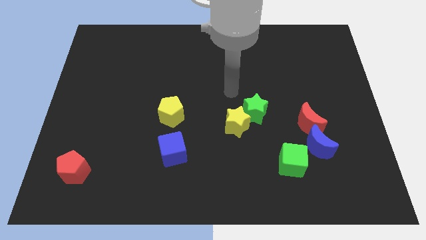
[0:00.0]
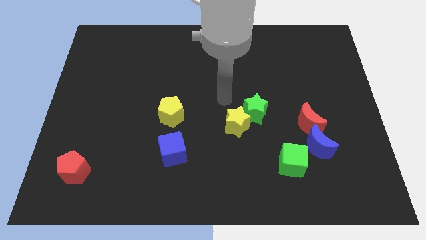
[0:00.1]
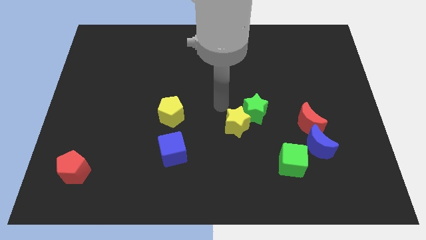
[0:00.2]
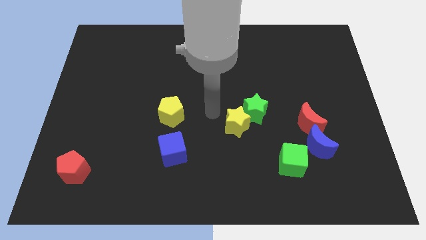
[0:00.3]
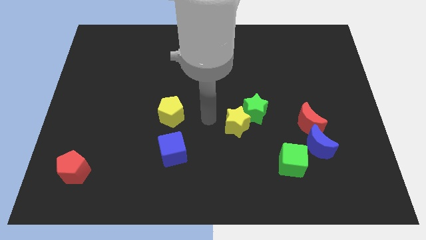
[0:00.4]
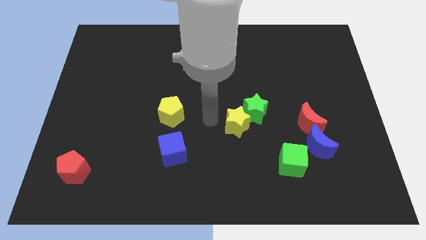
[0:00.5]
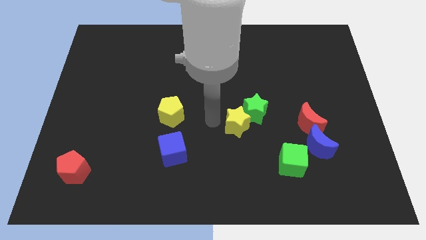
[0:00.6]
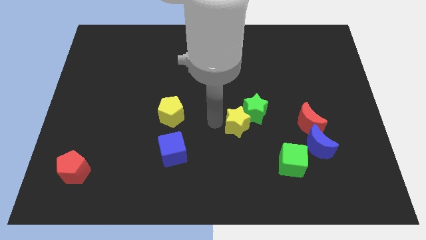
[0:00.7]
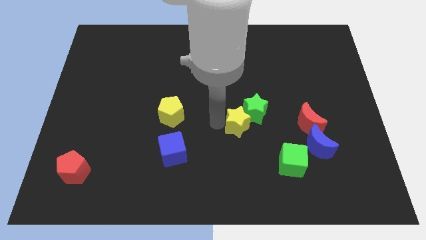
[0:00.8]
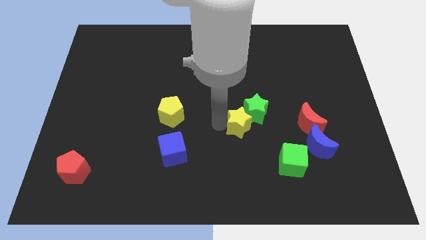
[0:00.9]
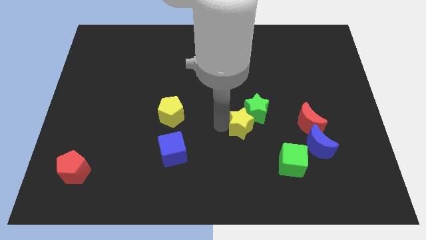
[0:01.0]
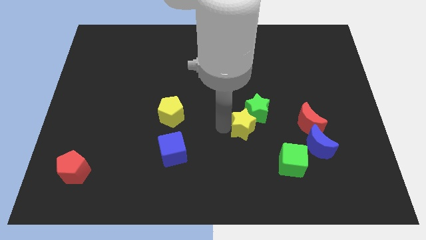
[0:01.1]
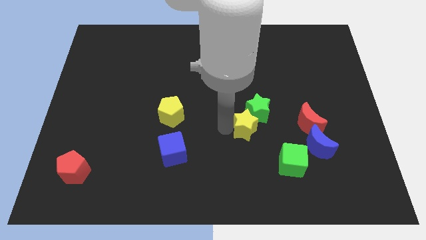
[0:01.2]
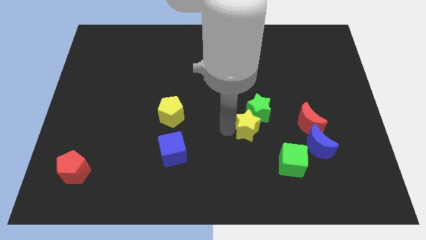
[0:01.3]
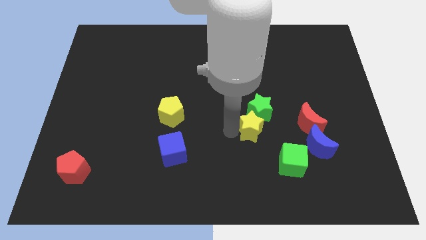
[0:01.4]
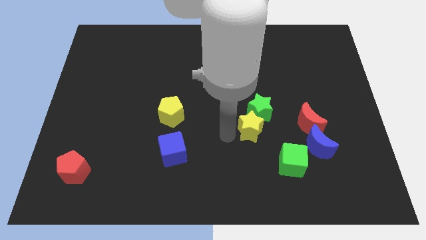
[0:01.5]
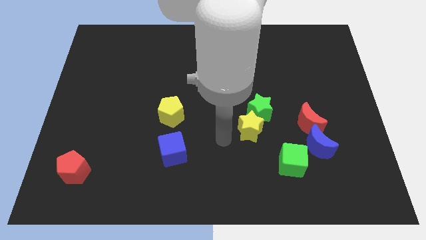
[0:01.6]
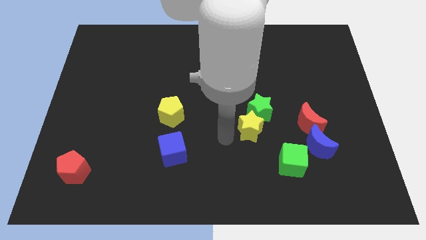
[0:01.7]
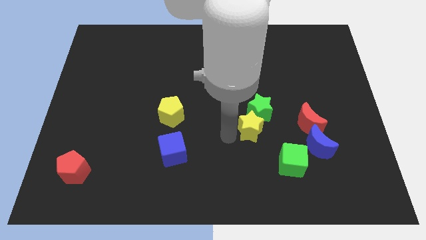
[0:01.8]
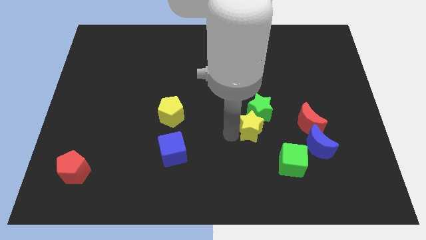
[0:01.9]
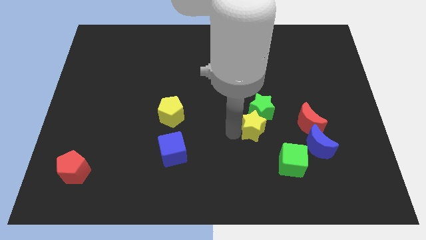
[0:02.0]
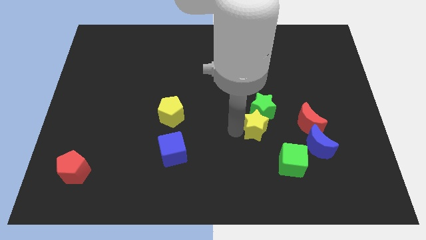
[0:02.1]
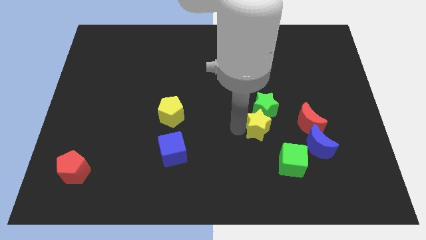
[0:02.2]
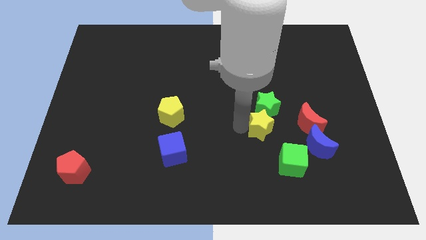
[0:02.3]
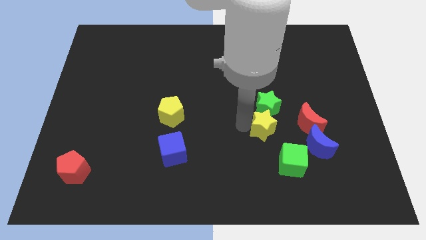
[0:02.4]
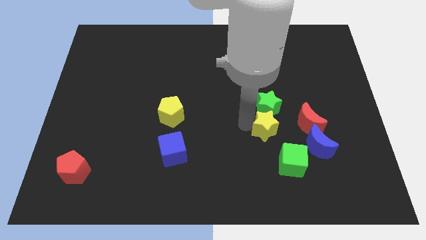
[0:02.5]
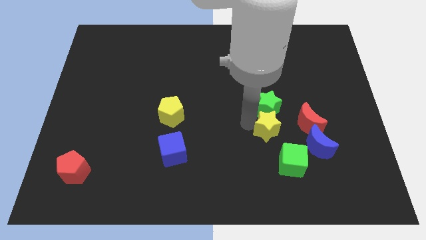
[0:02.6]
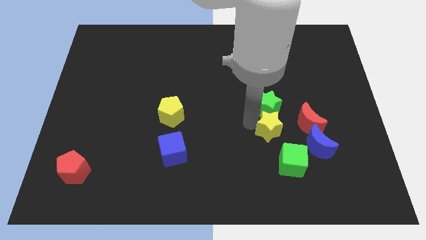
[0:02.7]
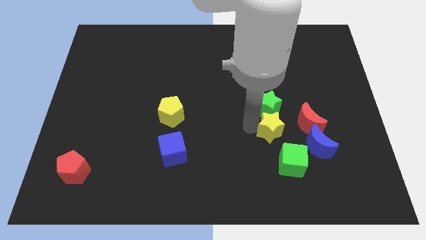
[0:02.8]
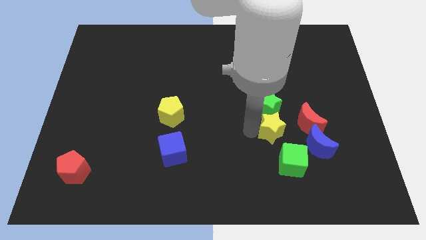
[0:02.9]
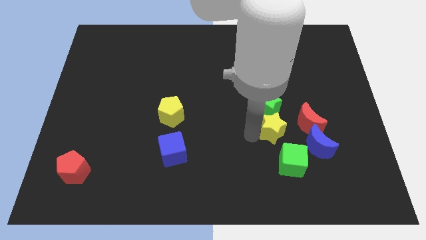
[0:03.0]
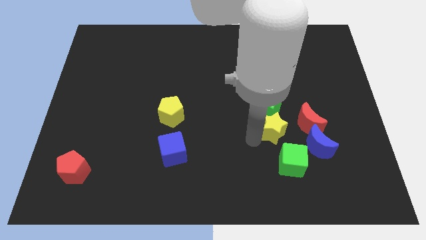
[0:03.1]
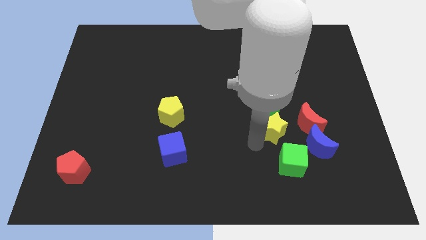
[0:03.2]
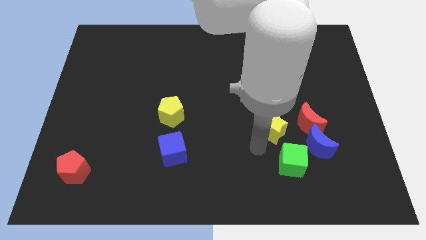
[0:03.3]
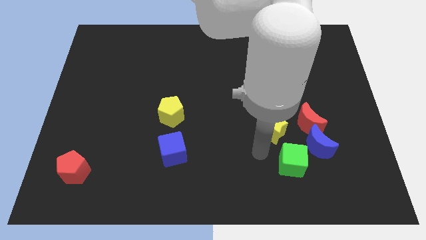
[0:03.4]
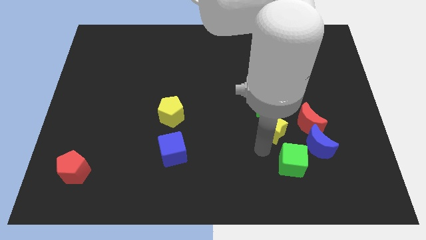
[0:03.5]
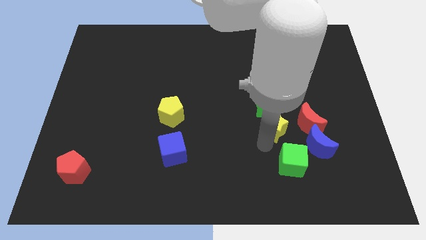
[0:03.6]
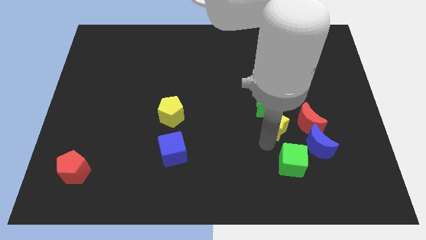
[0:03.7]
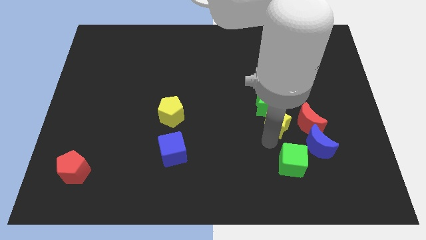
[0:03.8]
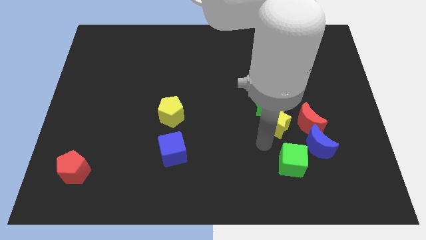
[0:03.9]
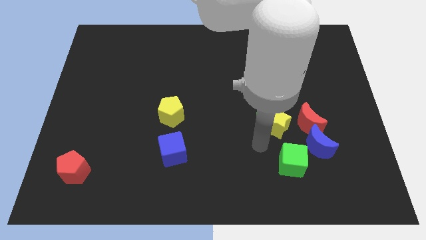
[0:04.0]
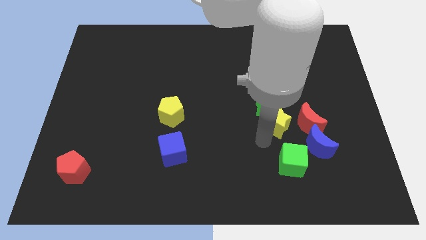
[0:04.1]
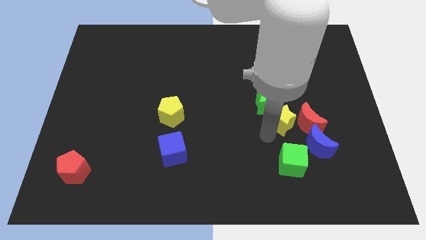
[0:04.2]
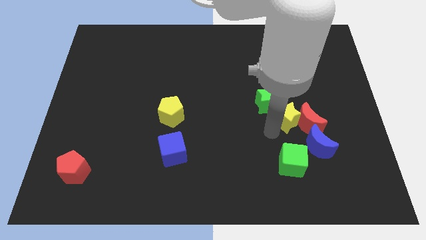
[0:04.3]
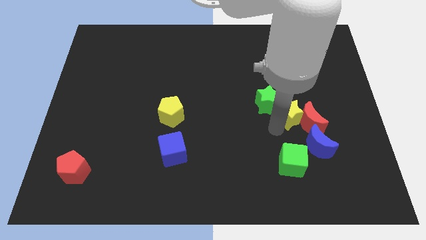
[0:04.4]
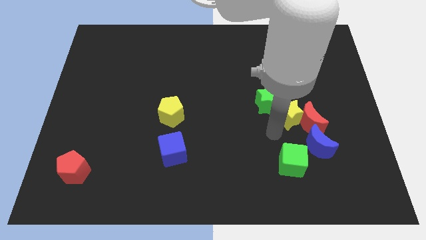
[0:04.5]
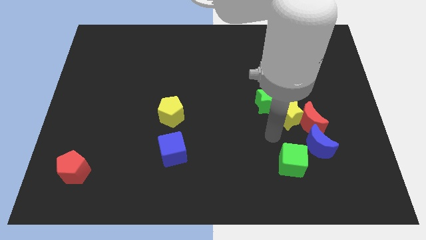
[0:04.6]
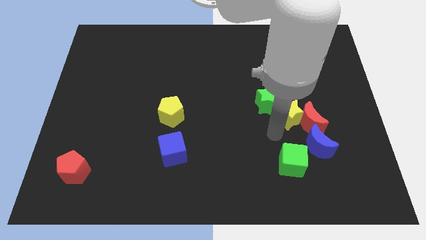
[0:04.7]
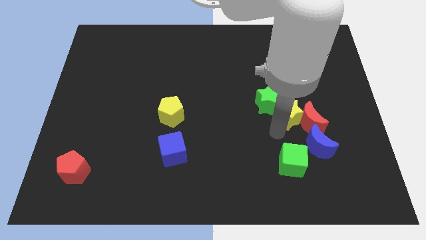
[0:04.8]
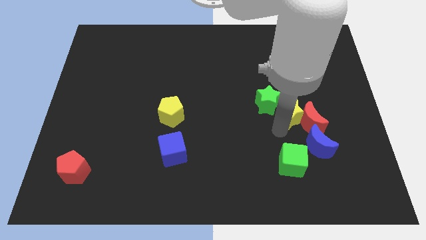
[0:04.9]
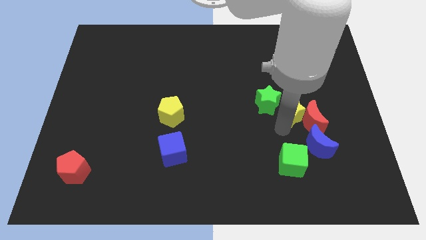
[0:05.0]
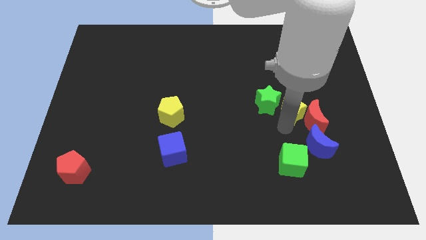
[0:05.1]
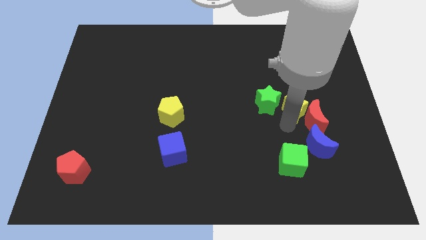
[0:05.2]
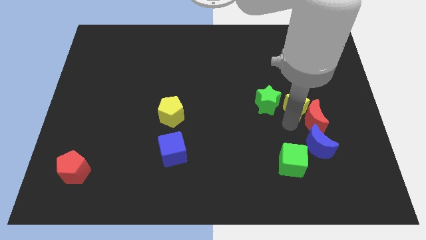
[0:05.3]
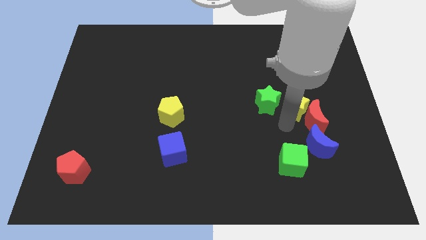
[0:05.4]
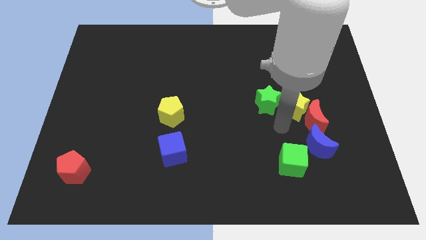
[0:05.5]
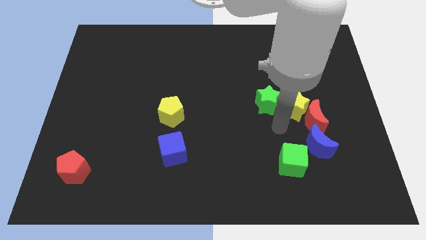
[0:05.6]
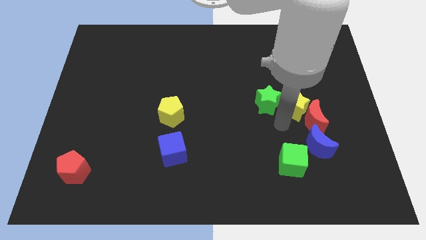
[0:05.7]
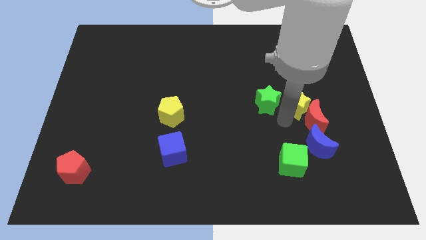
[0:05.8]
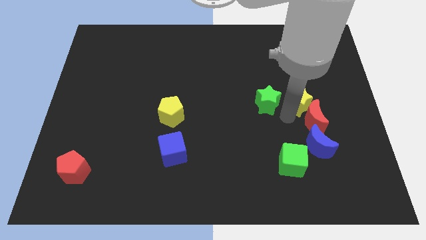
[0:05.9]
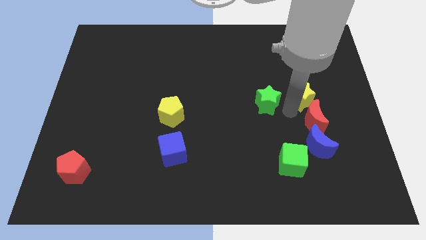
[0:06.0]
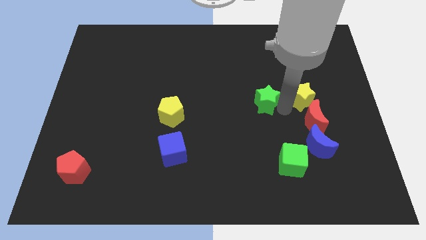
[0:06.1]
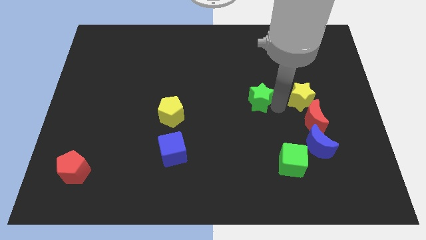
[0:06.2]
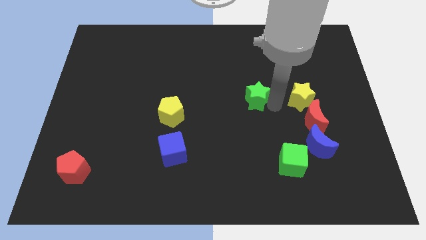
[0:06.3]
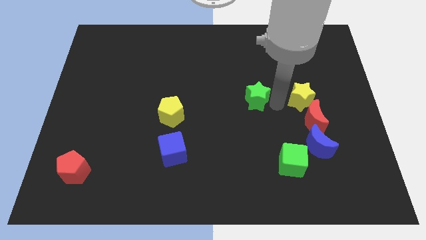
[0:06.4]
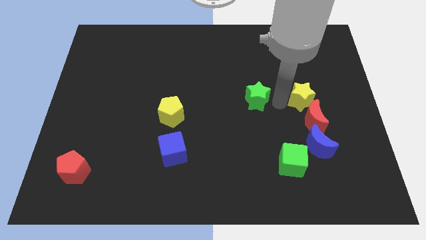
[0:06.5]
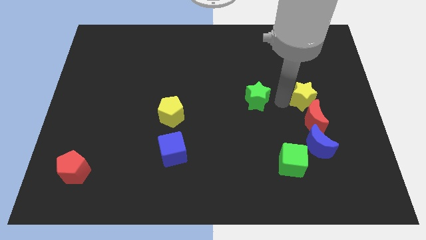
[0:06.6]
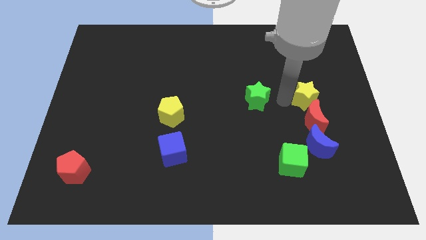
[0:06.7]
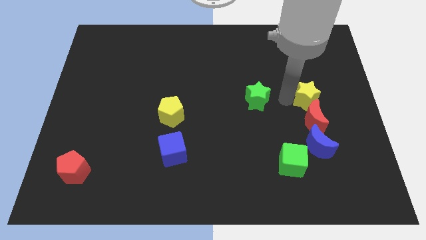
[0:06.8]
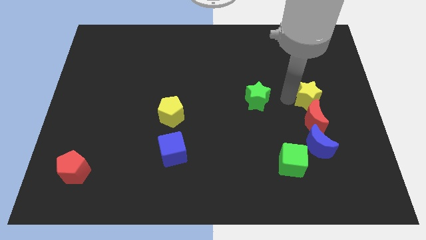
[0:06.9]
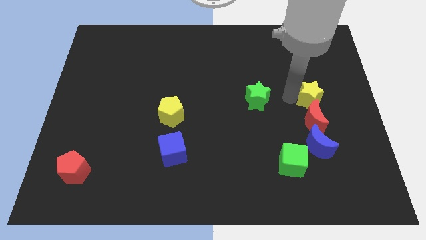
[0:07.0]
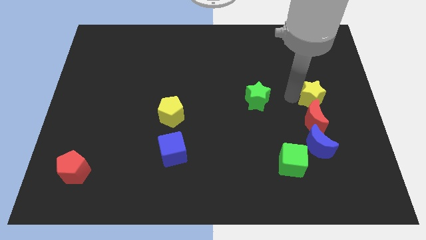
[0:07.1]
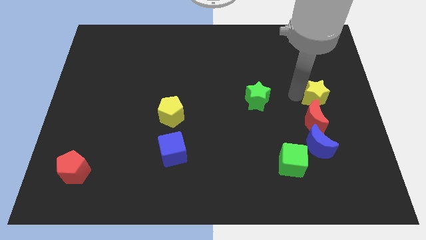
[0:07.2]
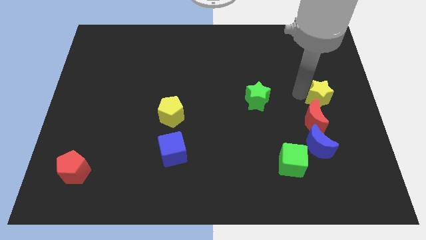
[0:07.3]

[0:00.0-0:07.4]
put the yellow star to the right side of the board
